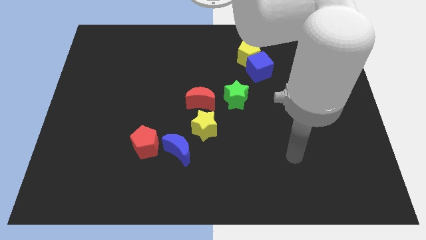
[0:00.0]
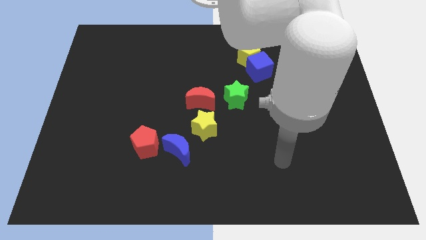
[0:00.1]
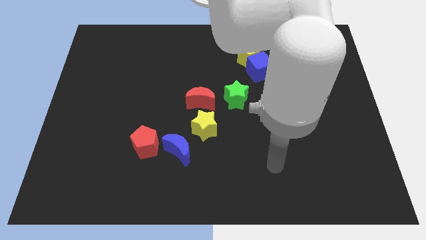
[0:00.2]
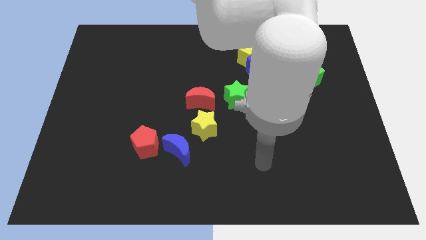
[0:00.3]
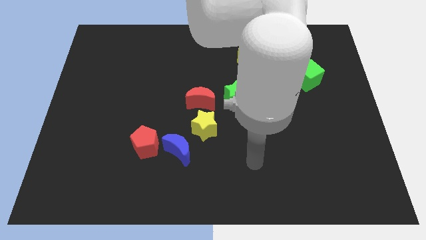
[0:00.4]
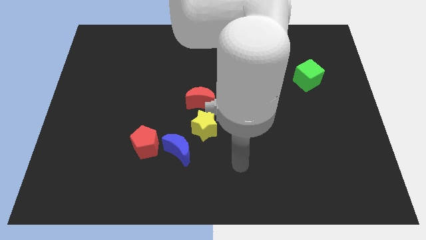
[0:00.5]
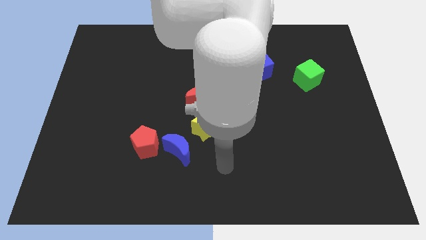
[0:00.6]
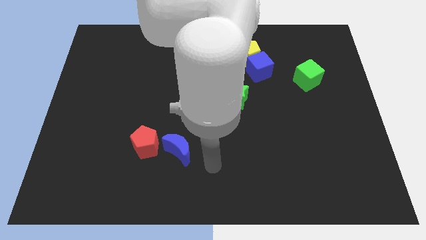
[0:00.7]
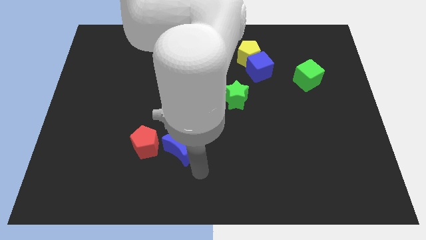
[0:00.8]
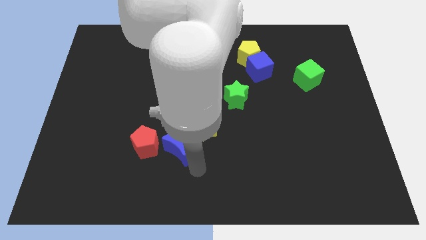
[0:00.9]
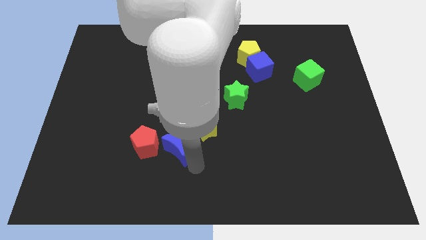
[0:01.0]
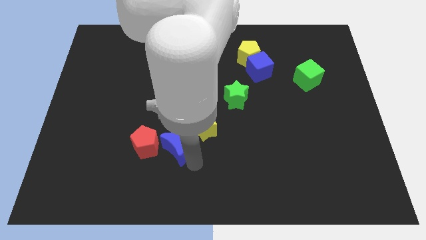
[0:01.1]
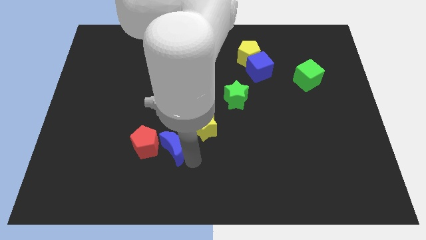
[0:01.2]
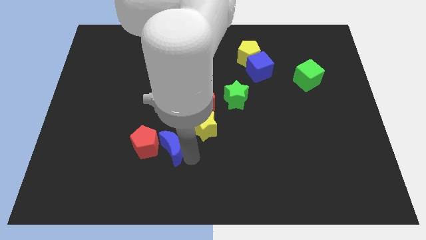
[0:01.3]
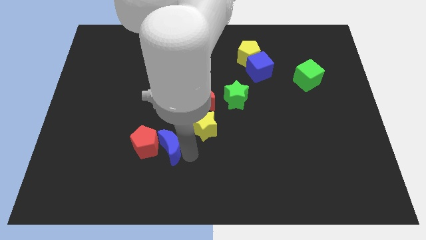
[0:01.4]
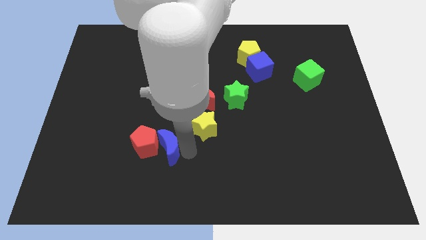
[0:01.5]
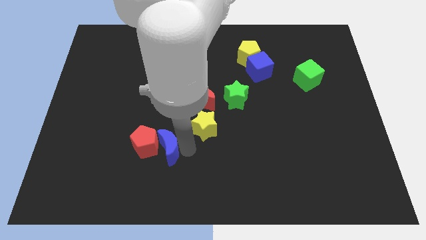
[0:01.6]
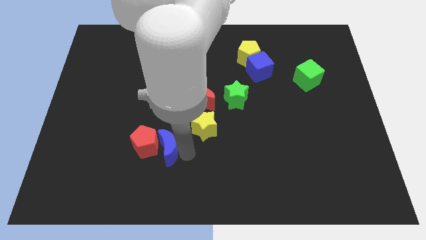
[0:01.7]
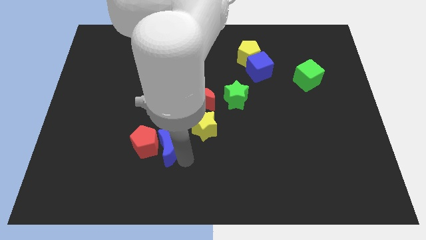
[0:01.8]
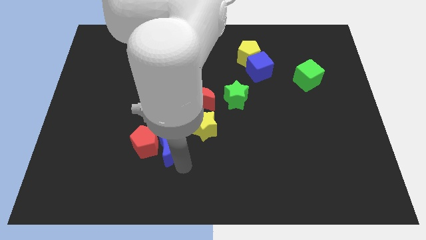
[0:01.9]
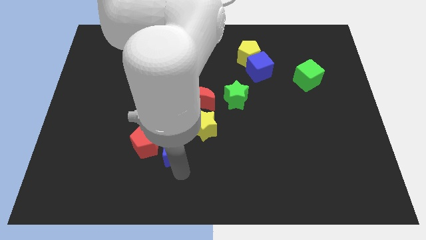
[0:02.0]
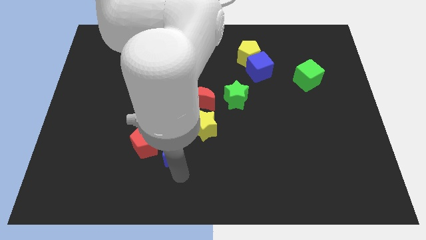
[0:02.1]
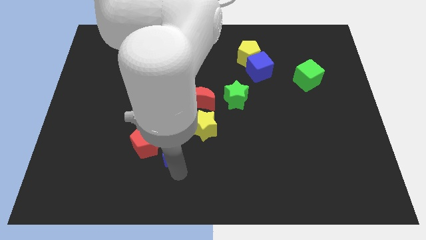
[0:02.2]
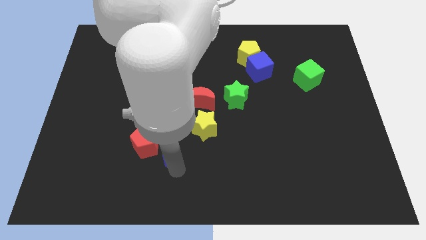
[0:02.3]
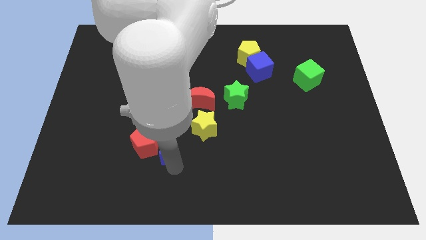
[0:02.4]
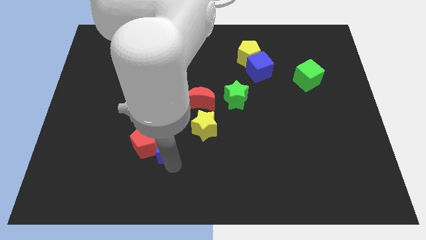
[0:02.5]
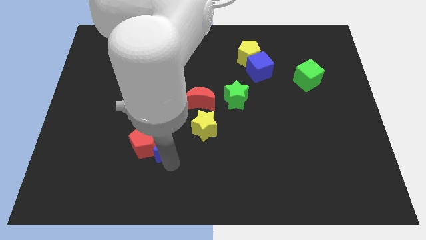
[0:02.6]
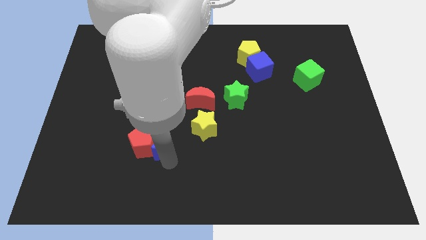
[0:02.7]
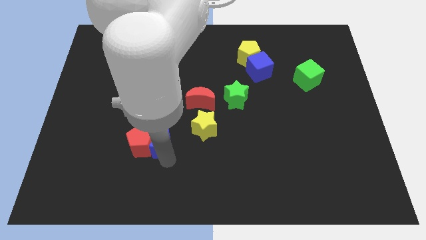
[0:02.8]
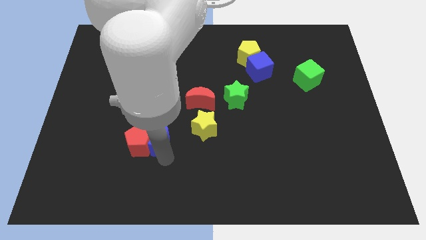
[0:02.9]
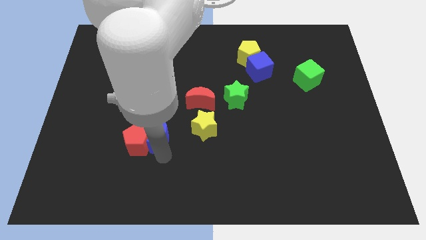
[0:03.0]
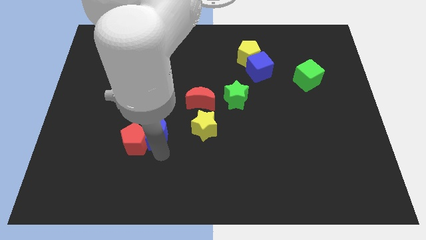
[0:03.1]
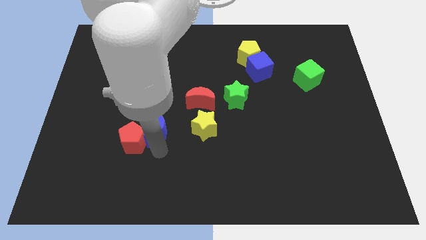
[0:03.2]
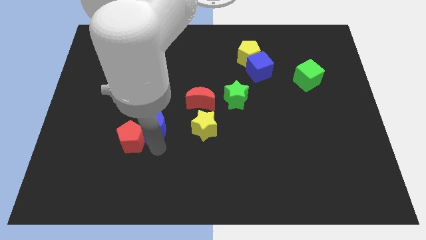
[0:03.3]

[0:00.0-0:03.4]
slightly push the blue moon up and left diagonally

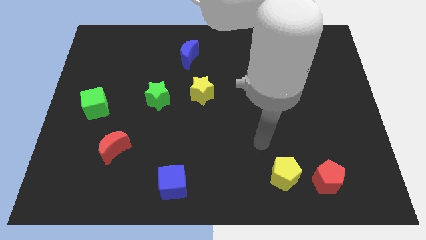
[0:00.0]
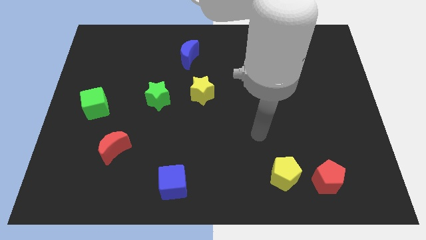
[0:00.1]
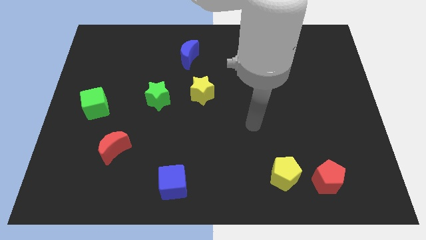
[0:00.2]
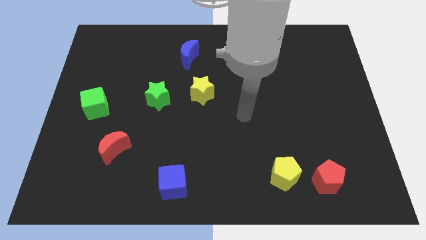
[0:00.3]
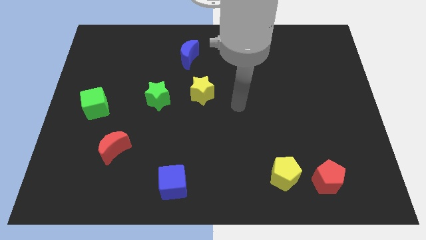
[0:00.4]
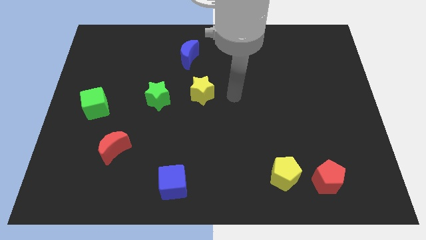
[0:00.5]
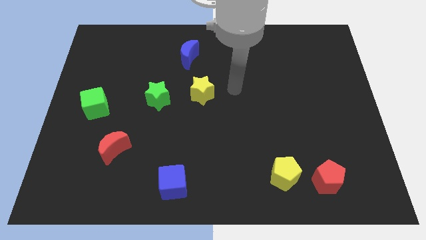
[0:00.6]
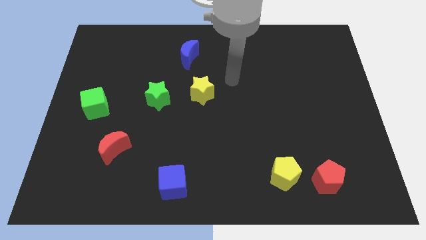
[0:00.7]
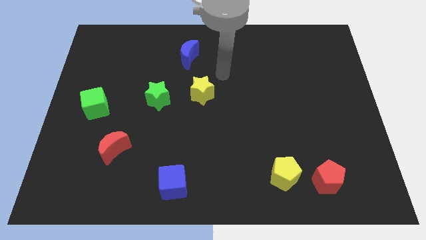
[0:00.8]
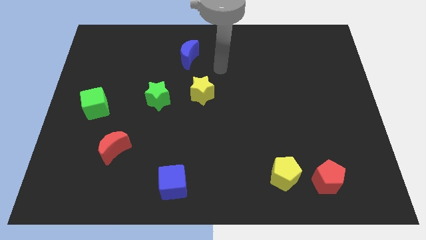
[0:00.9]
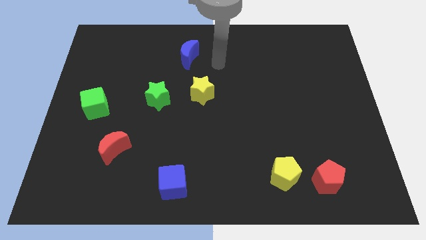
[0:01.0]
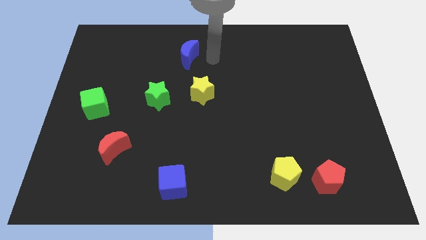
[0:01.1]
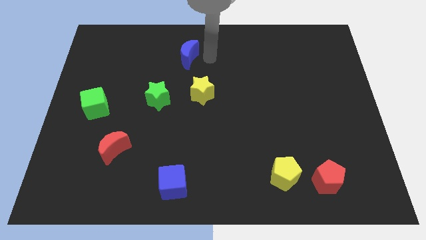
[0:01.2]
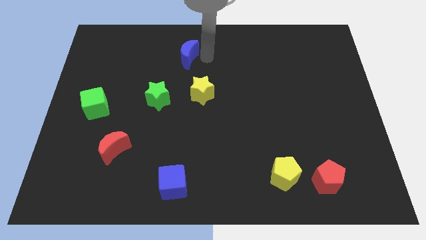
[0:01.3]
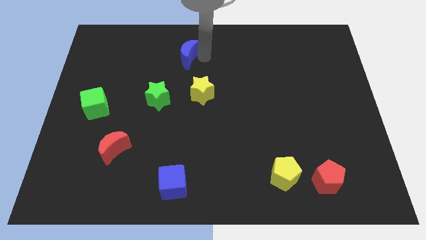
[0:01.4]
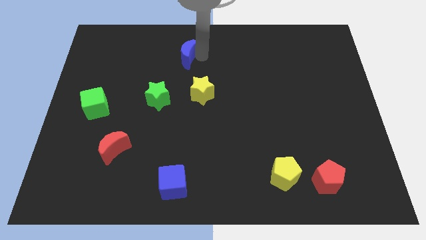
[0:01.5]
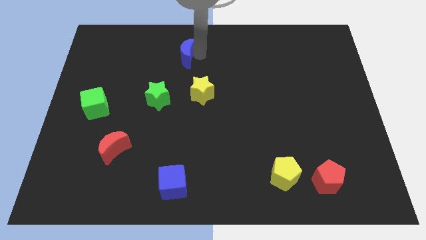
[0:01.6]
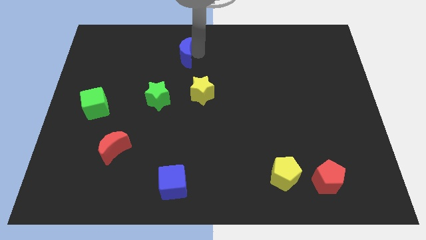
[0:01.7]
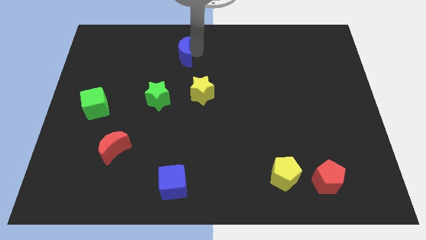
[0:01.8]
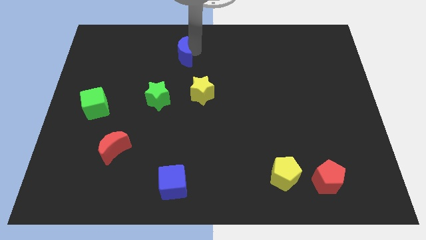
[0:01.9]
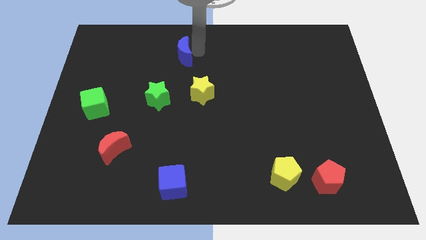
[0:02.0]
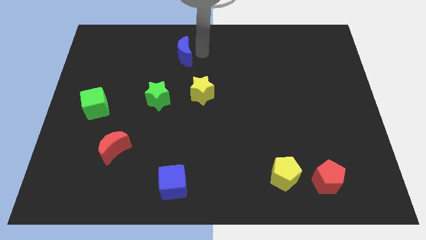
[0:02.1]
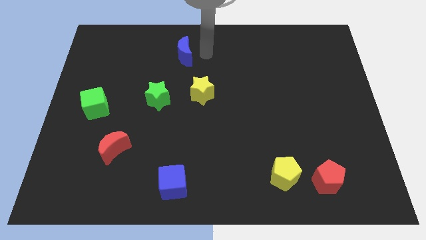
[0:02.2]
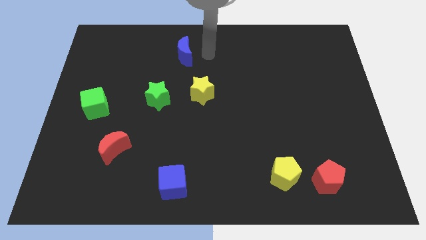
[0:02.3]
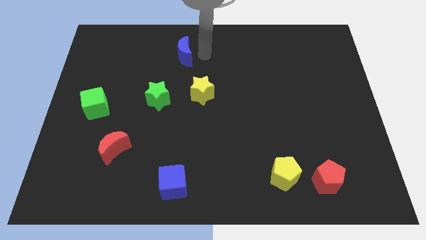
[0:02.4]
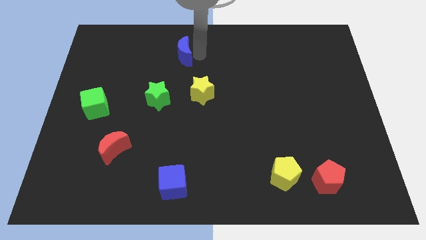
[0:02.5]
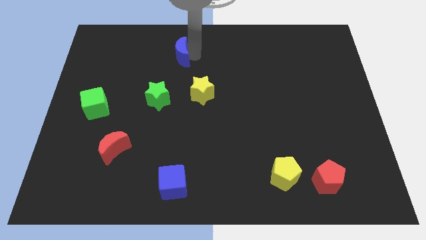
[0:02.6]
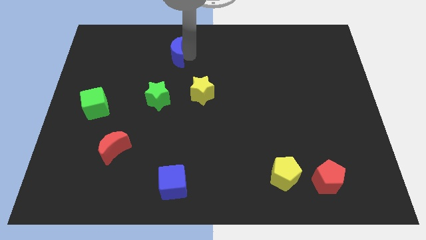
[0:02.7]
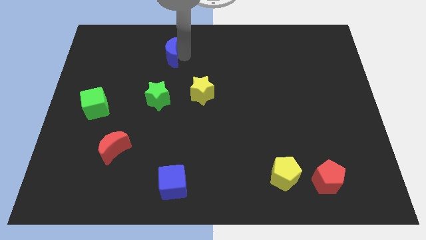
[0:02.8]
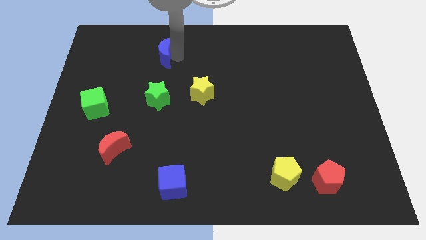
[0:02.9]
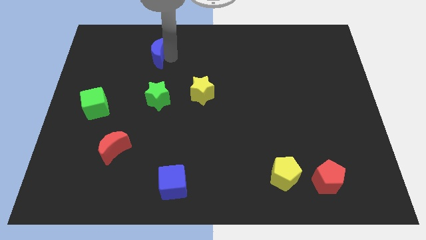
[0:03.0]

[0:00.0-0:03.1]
slightly push the blue moon to the left

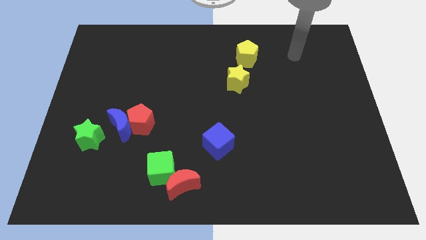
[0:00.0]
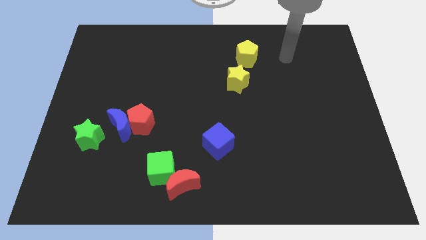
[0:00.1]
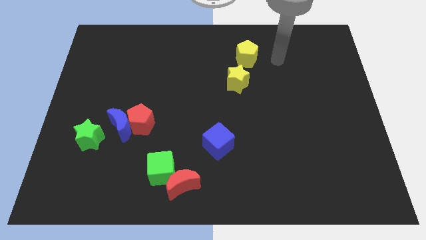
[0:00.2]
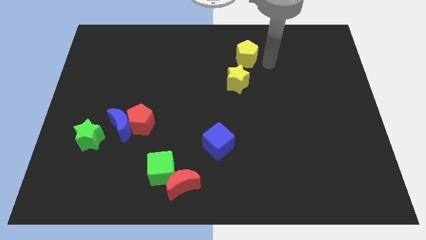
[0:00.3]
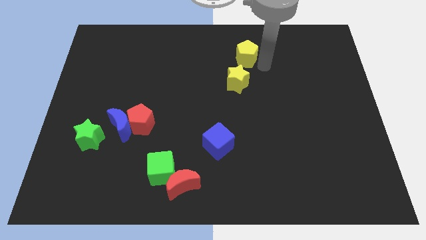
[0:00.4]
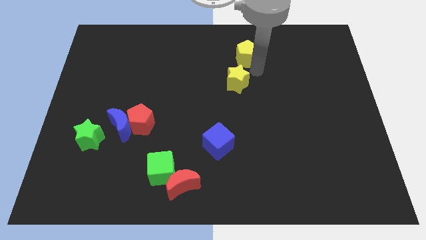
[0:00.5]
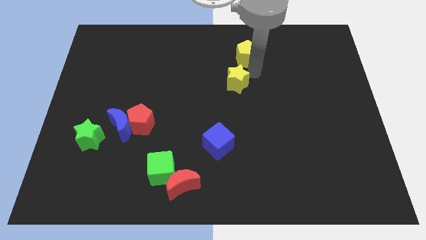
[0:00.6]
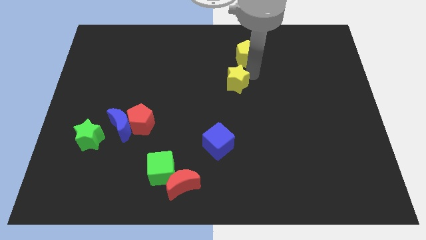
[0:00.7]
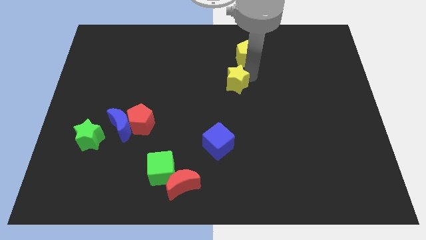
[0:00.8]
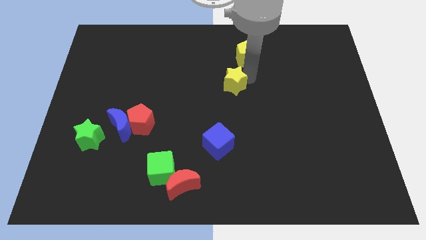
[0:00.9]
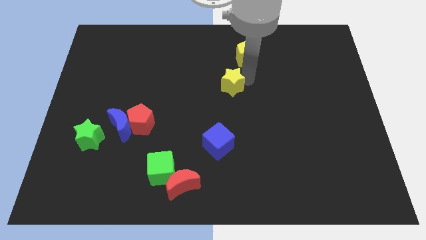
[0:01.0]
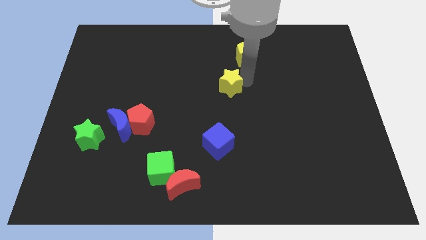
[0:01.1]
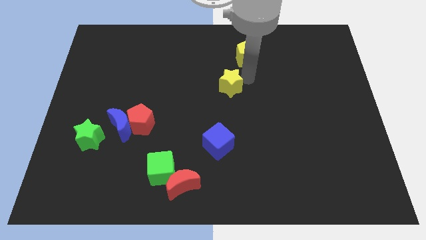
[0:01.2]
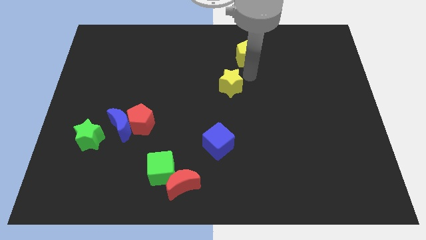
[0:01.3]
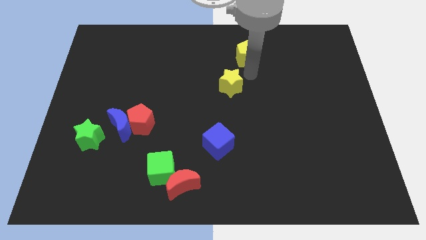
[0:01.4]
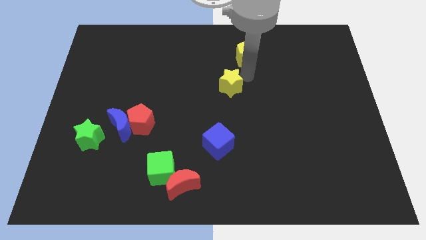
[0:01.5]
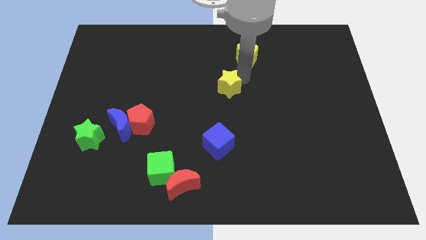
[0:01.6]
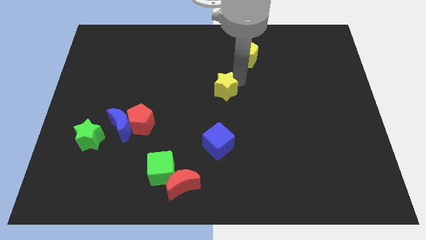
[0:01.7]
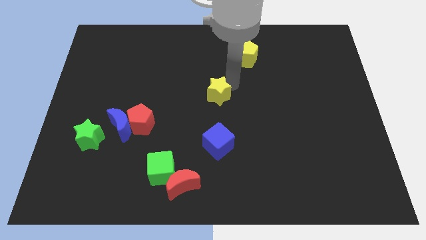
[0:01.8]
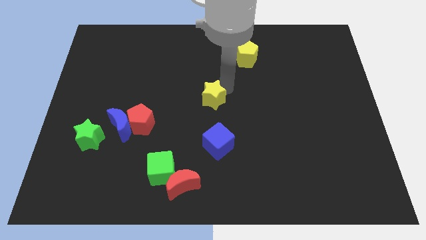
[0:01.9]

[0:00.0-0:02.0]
push the yellow star downwards and then left a bit
